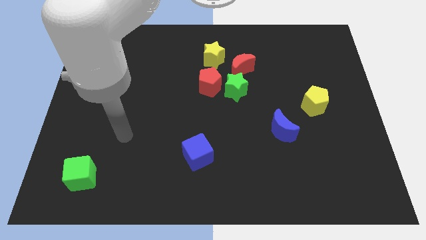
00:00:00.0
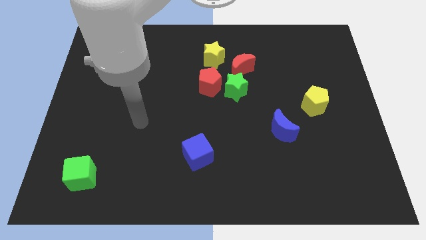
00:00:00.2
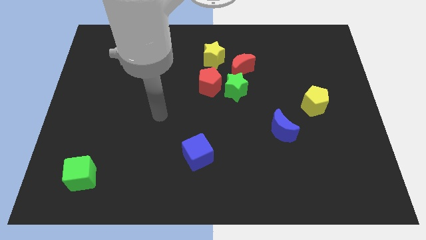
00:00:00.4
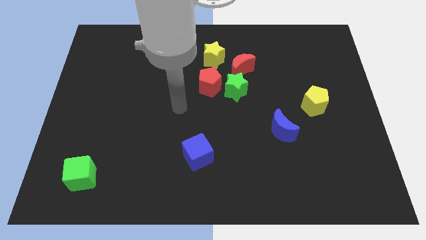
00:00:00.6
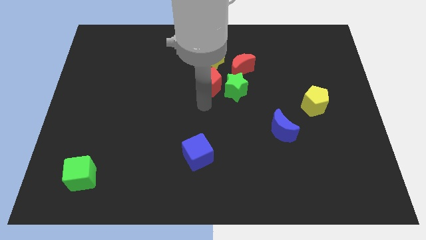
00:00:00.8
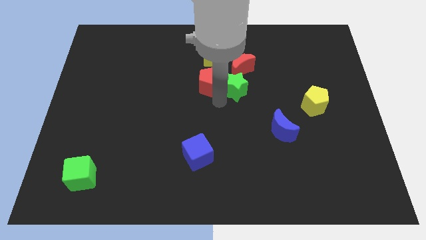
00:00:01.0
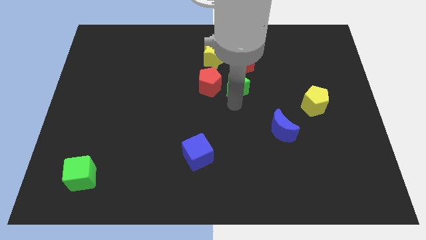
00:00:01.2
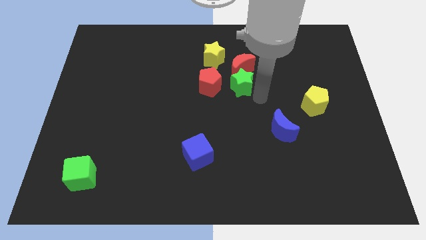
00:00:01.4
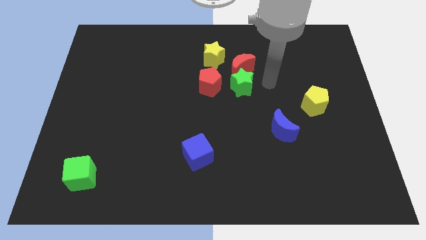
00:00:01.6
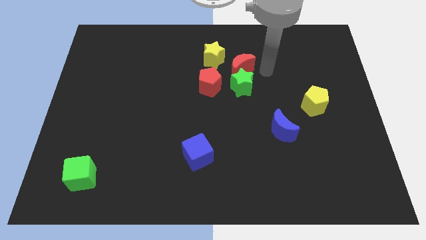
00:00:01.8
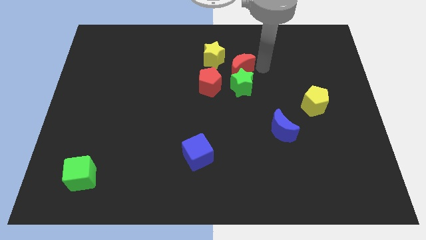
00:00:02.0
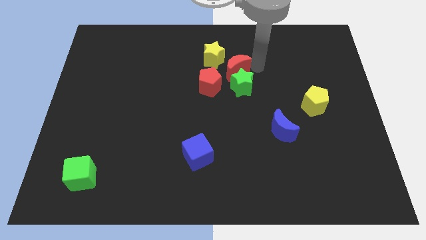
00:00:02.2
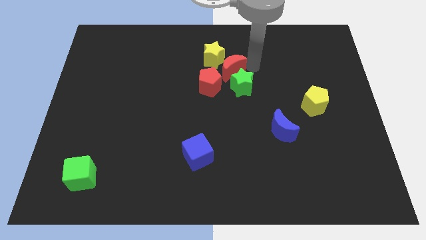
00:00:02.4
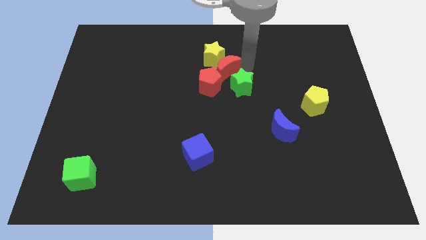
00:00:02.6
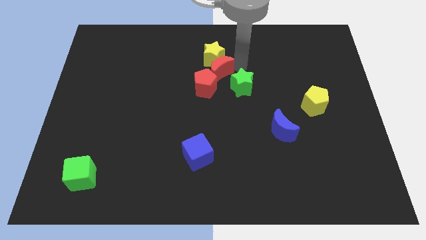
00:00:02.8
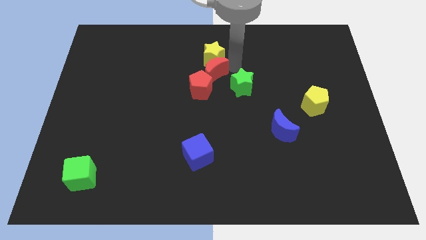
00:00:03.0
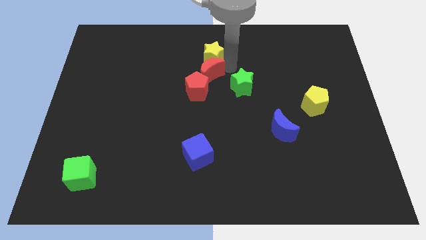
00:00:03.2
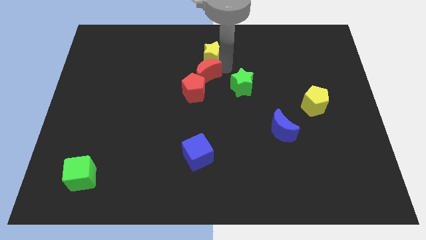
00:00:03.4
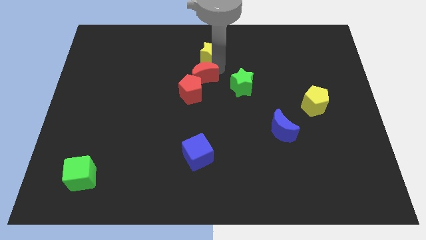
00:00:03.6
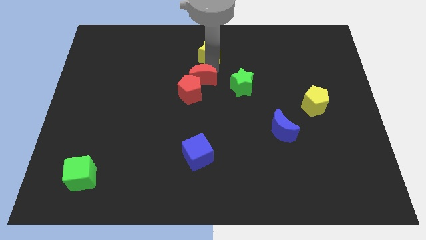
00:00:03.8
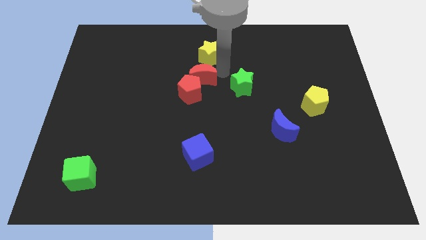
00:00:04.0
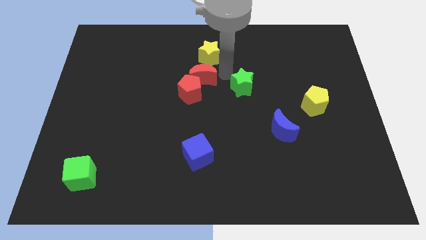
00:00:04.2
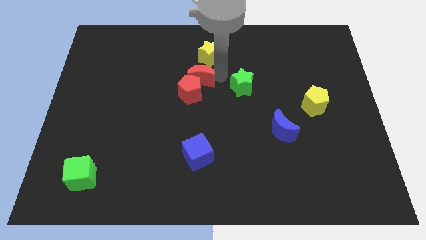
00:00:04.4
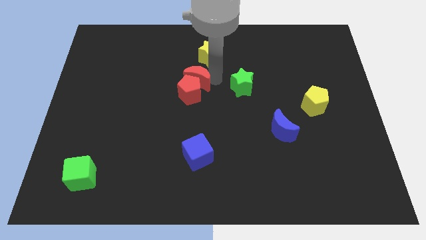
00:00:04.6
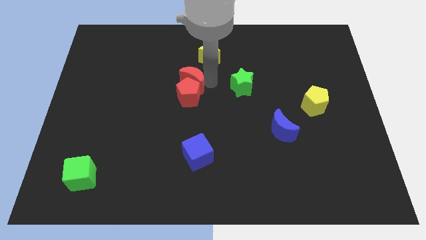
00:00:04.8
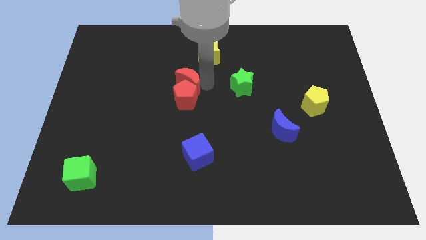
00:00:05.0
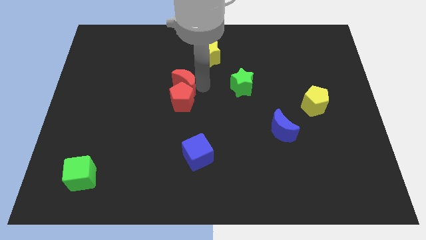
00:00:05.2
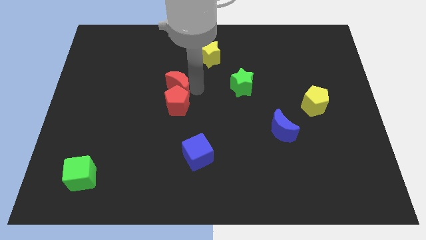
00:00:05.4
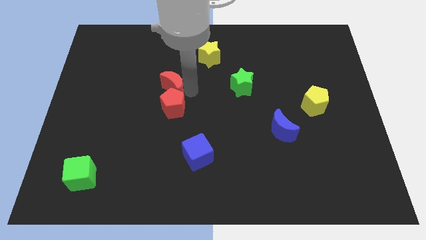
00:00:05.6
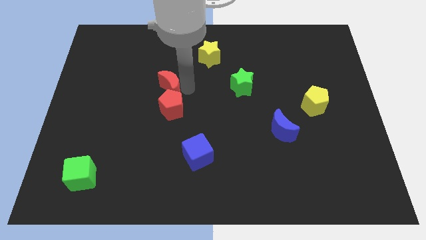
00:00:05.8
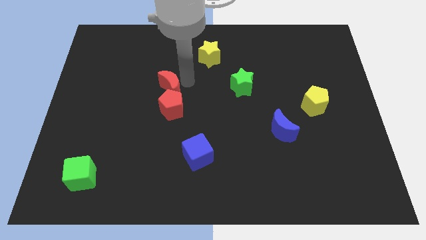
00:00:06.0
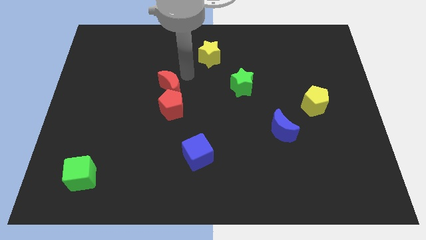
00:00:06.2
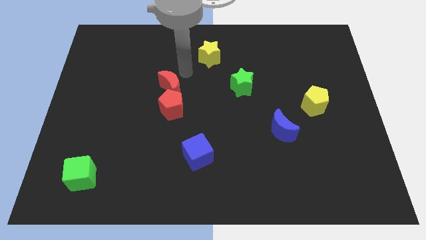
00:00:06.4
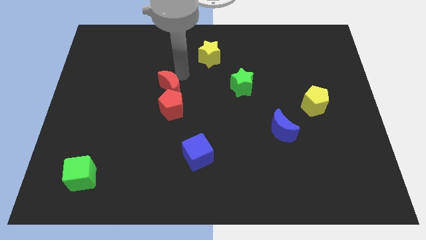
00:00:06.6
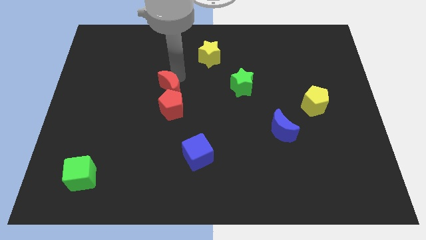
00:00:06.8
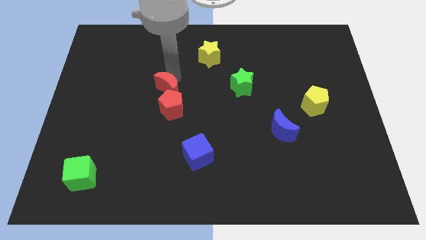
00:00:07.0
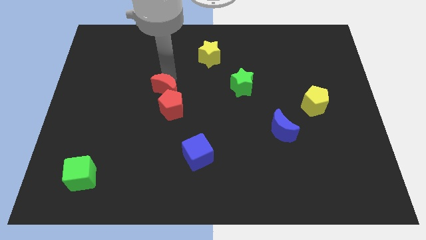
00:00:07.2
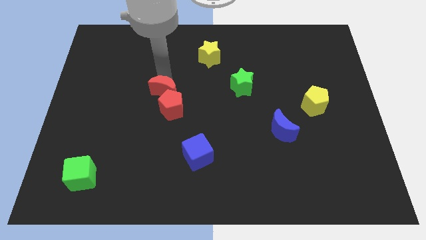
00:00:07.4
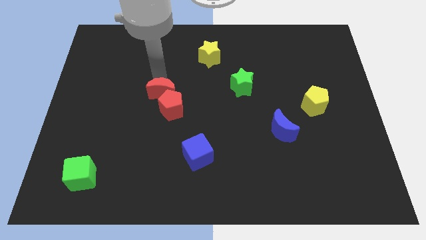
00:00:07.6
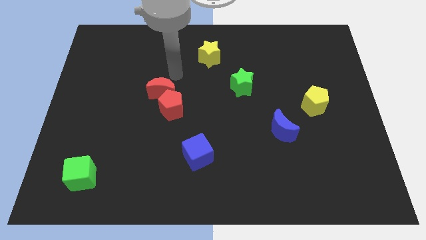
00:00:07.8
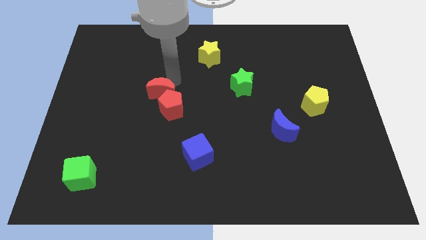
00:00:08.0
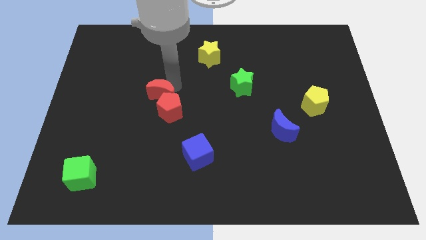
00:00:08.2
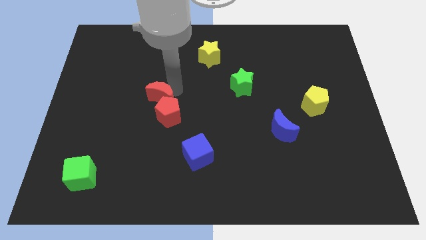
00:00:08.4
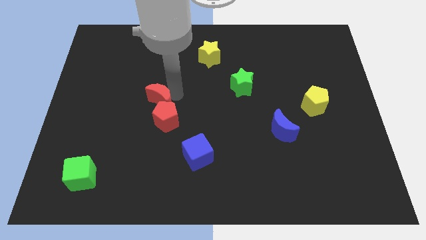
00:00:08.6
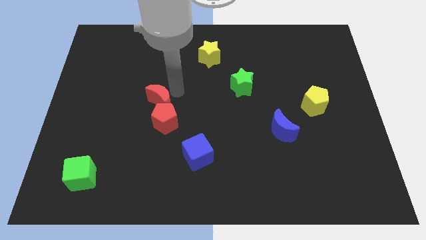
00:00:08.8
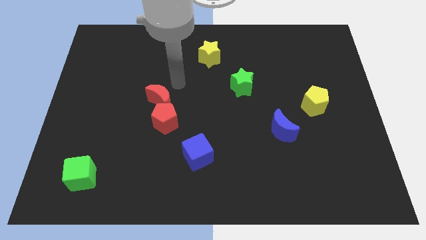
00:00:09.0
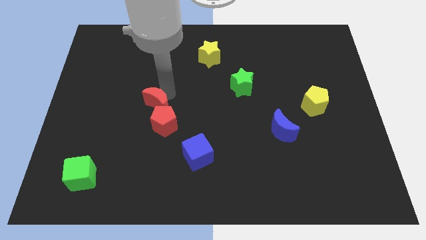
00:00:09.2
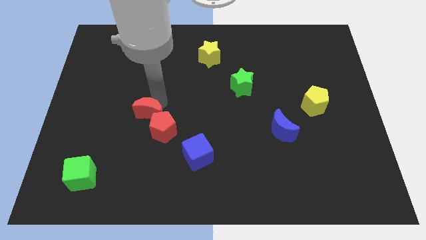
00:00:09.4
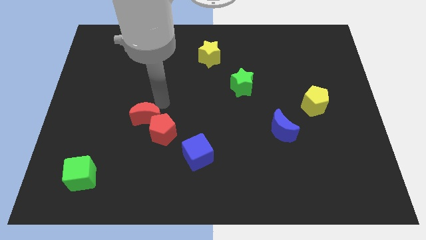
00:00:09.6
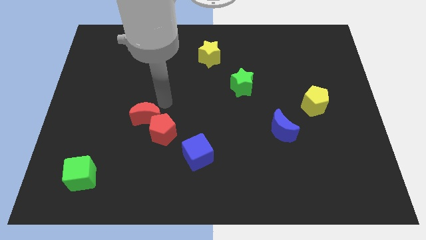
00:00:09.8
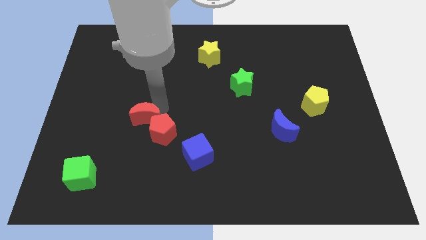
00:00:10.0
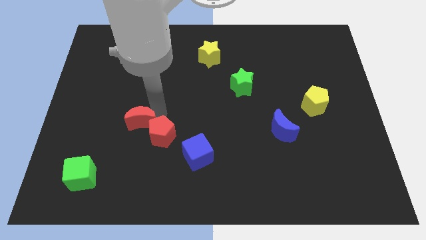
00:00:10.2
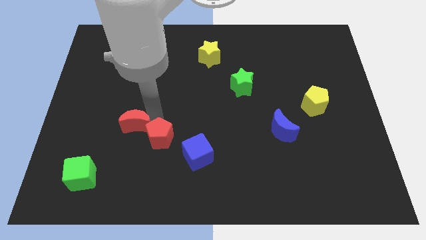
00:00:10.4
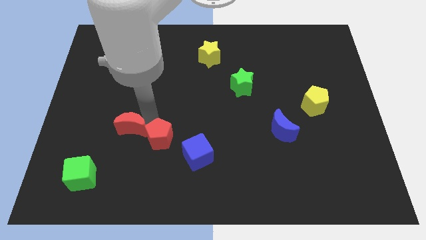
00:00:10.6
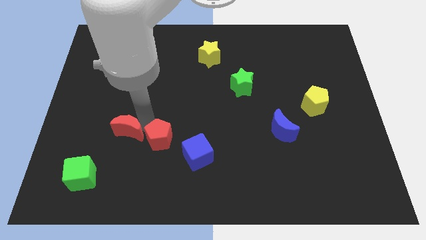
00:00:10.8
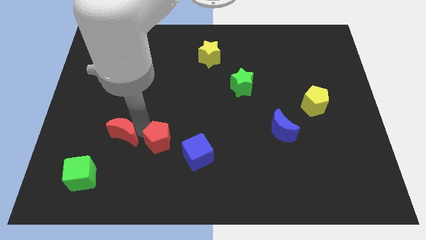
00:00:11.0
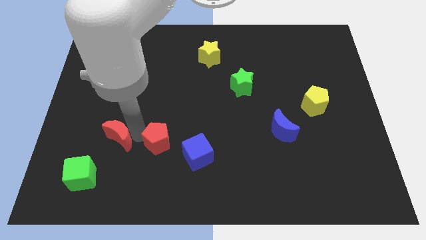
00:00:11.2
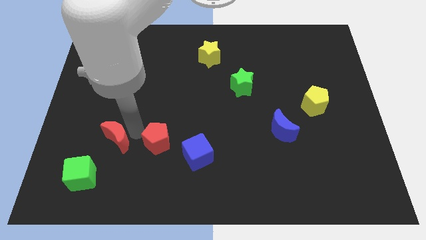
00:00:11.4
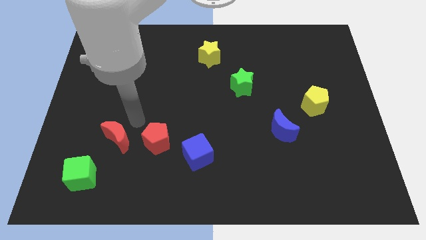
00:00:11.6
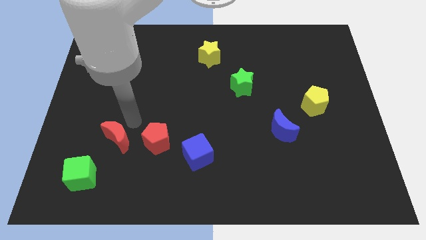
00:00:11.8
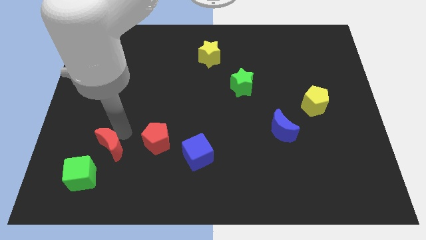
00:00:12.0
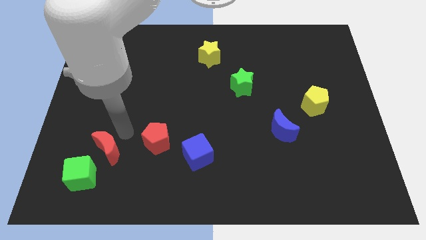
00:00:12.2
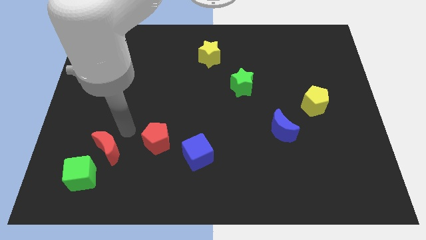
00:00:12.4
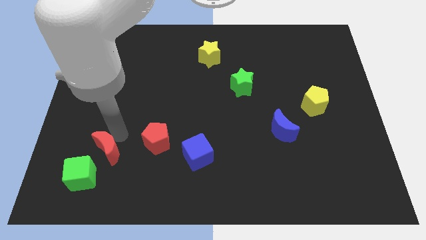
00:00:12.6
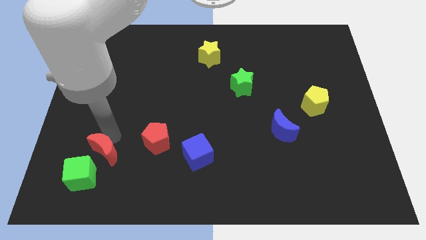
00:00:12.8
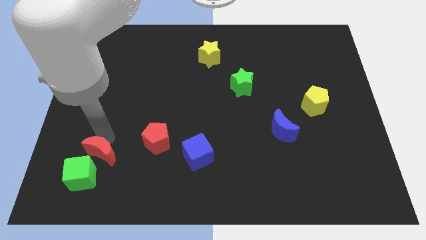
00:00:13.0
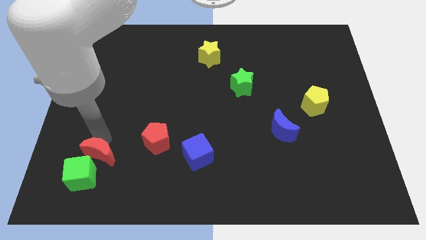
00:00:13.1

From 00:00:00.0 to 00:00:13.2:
push the red moon close to the green cube
